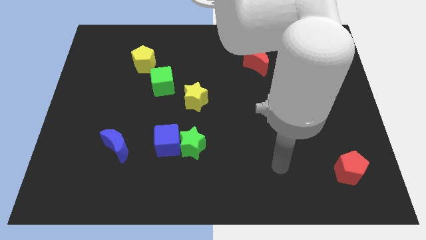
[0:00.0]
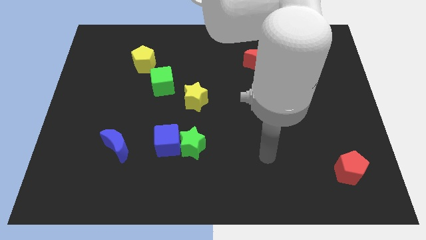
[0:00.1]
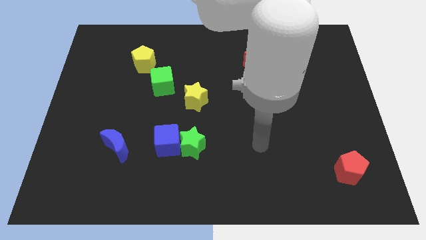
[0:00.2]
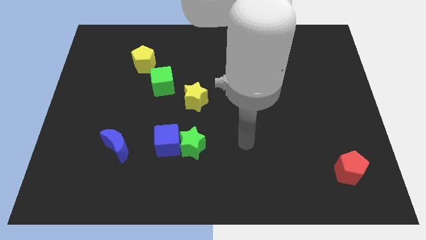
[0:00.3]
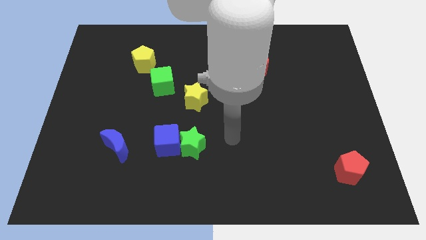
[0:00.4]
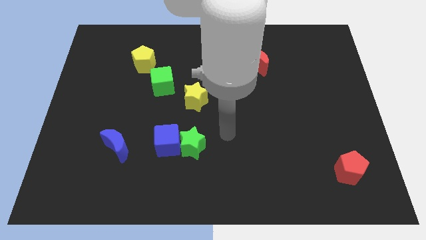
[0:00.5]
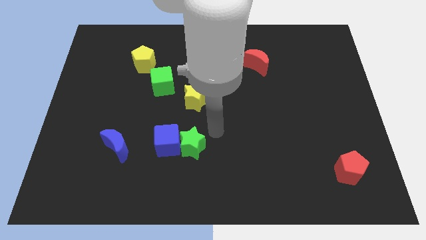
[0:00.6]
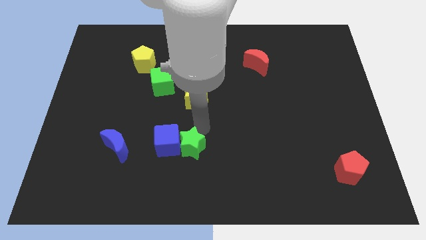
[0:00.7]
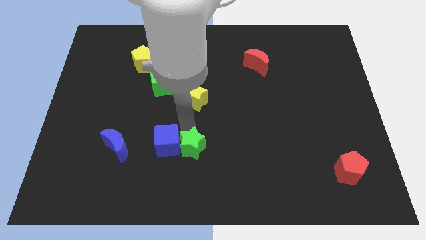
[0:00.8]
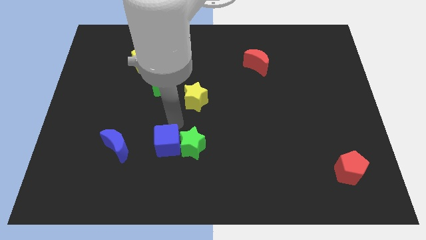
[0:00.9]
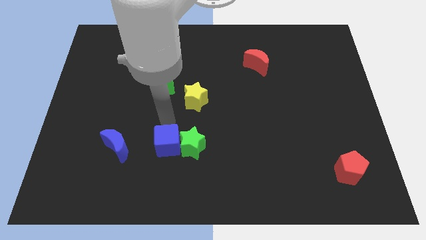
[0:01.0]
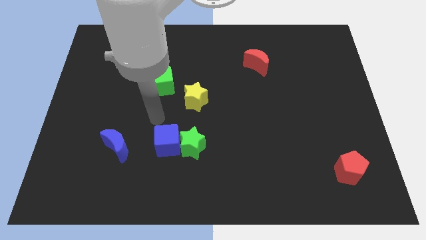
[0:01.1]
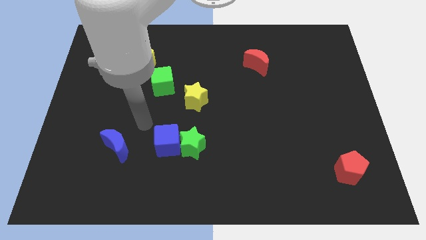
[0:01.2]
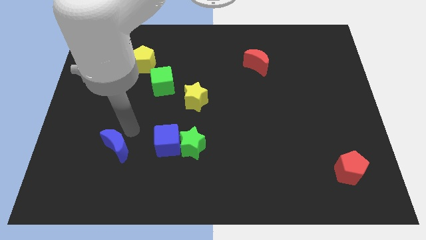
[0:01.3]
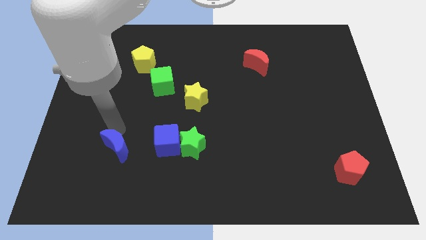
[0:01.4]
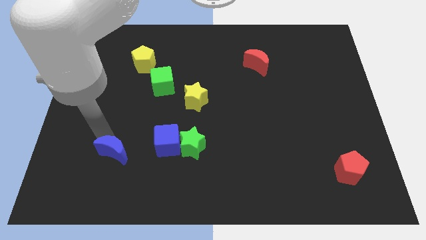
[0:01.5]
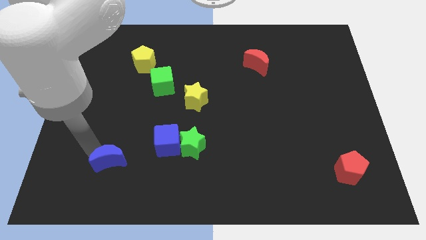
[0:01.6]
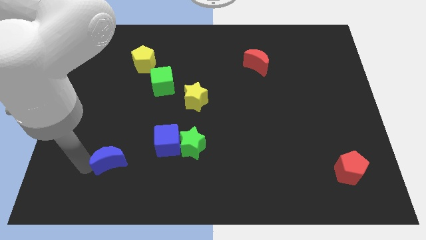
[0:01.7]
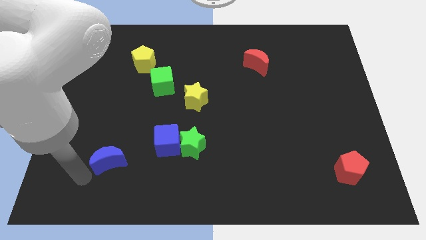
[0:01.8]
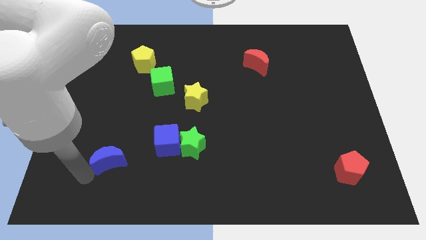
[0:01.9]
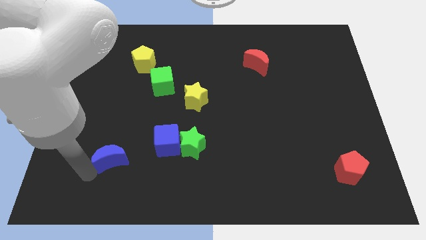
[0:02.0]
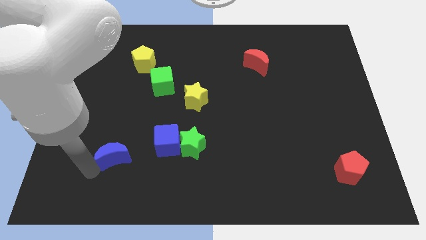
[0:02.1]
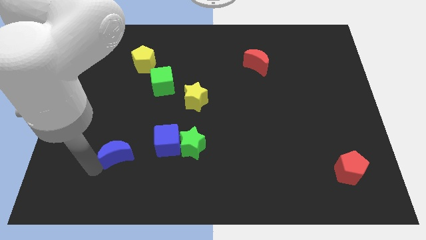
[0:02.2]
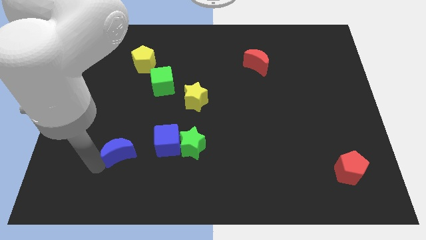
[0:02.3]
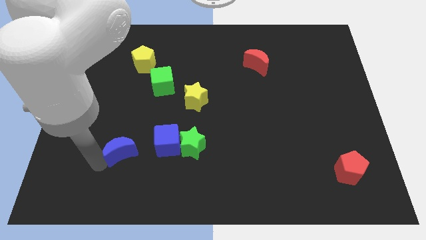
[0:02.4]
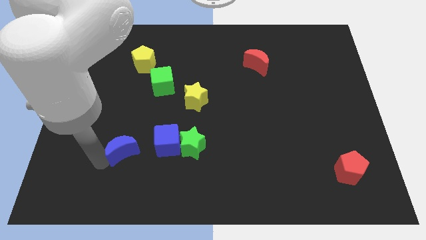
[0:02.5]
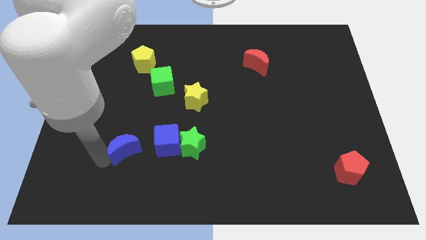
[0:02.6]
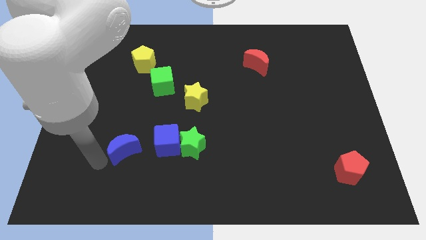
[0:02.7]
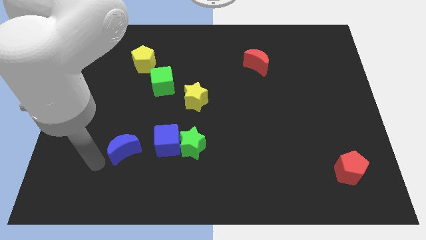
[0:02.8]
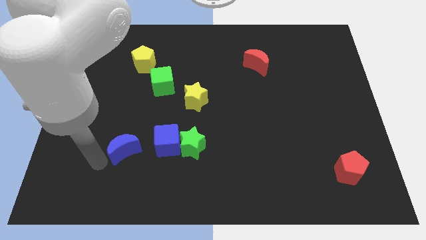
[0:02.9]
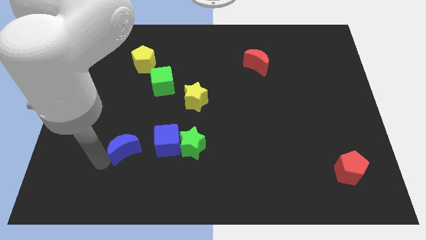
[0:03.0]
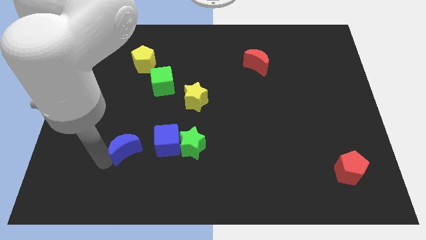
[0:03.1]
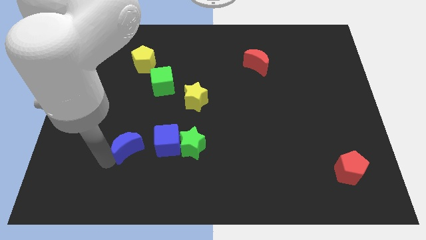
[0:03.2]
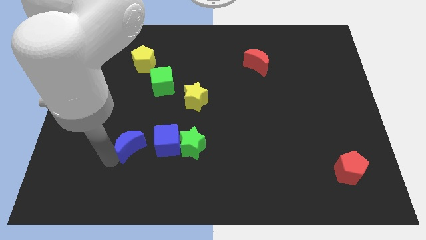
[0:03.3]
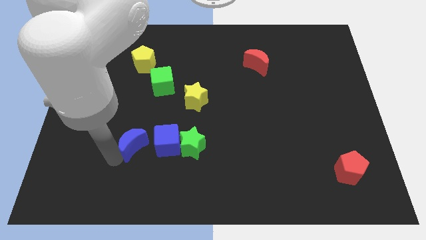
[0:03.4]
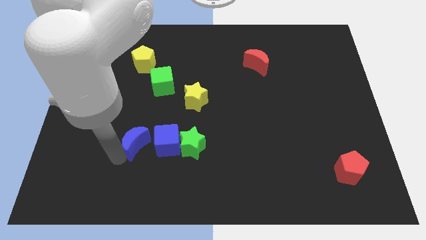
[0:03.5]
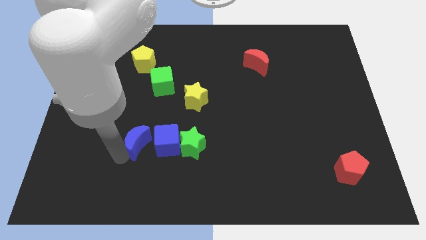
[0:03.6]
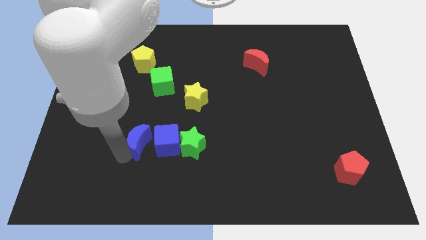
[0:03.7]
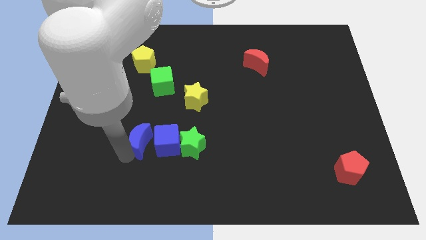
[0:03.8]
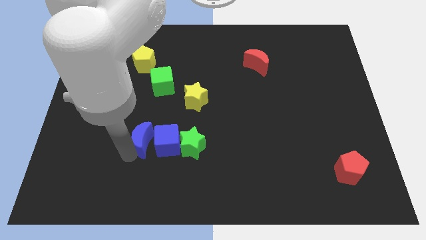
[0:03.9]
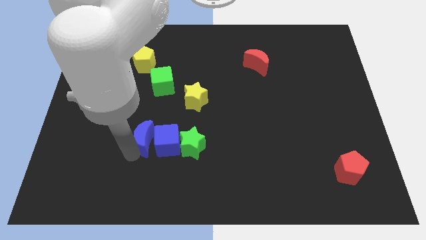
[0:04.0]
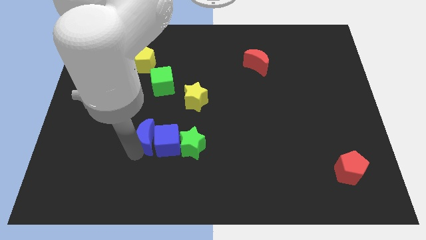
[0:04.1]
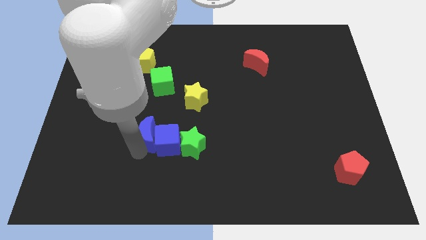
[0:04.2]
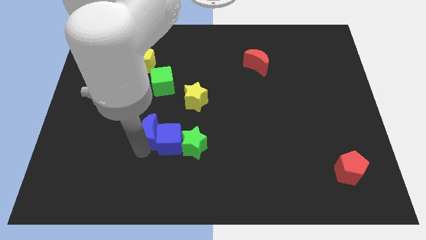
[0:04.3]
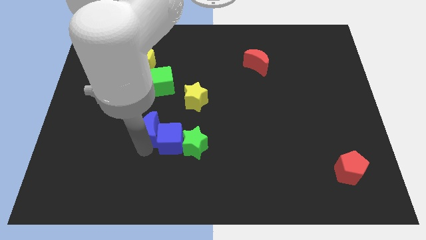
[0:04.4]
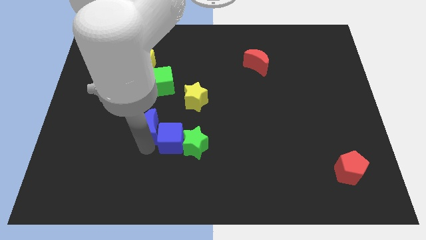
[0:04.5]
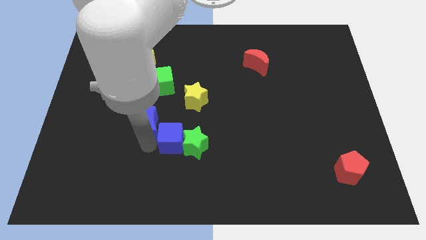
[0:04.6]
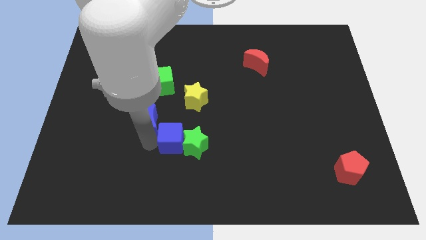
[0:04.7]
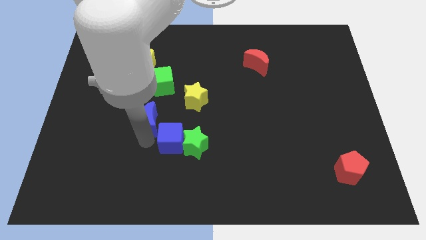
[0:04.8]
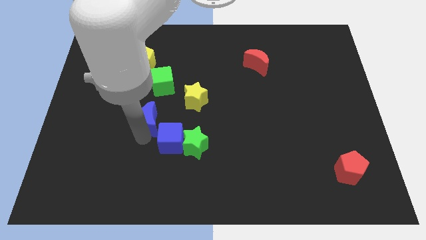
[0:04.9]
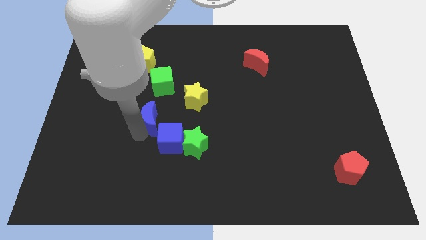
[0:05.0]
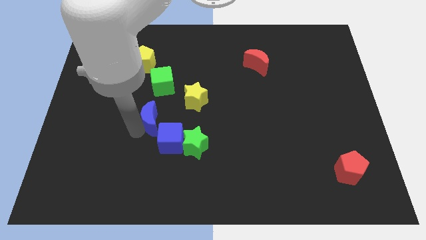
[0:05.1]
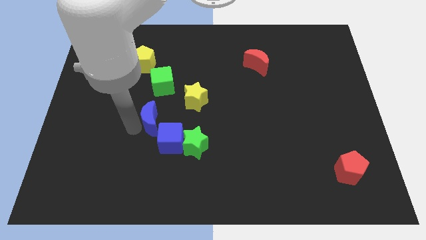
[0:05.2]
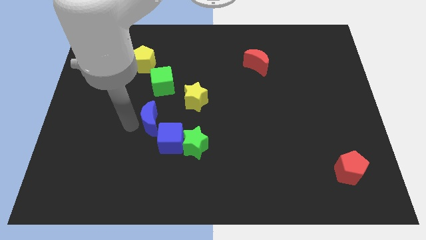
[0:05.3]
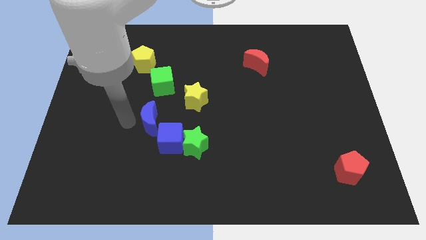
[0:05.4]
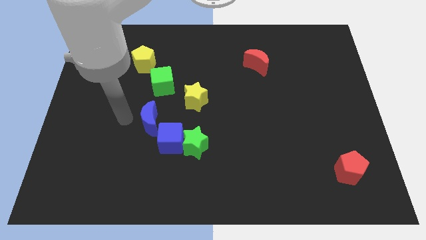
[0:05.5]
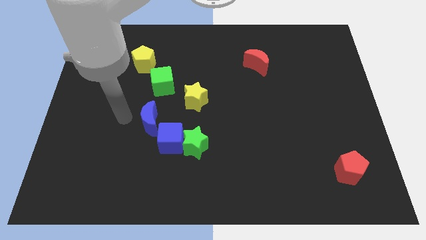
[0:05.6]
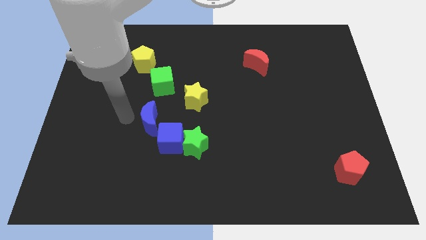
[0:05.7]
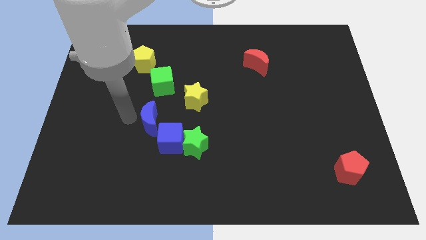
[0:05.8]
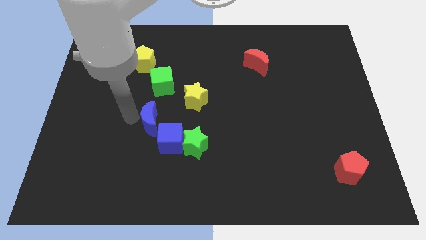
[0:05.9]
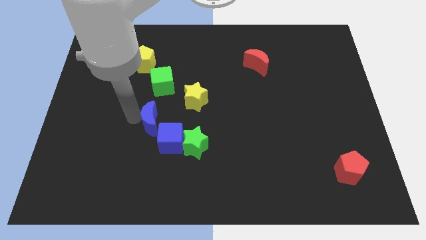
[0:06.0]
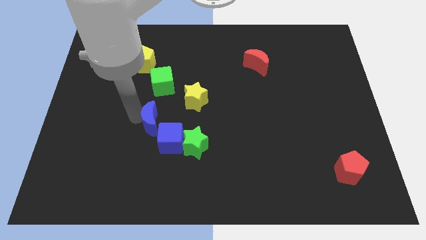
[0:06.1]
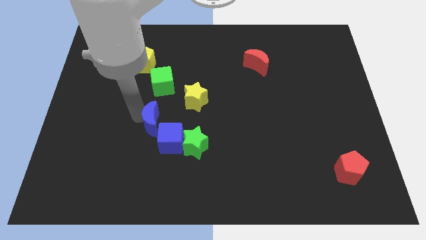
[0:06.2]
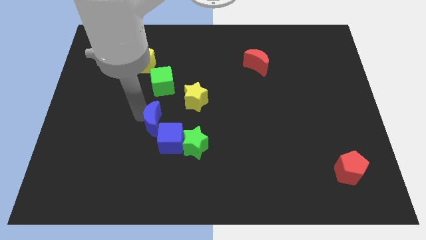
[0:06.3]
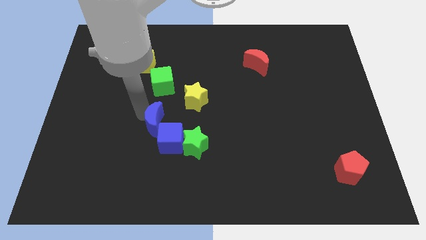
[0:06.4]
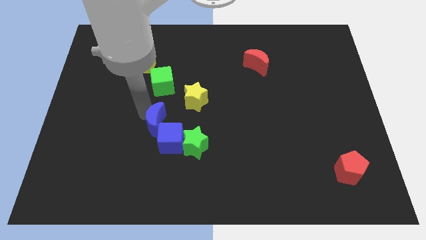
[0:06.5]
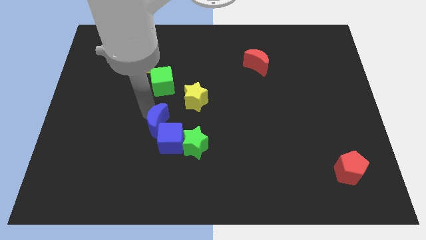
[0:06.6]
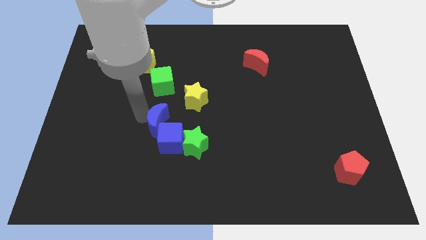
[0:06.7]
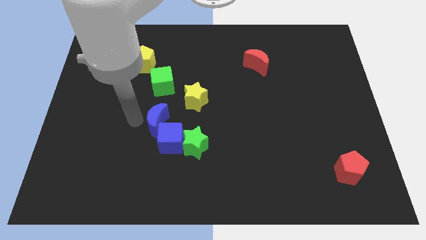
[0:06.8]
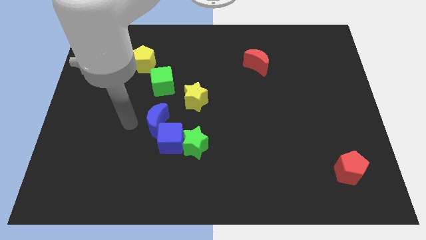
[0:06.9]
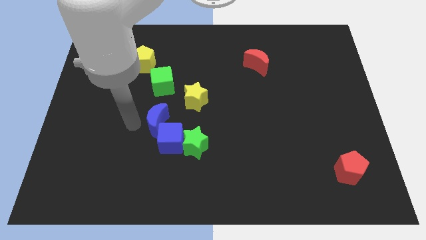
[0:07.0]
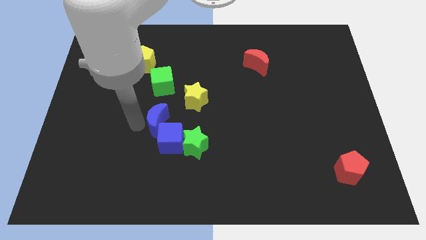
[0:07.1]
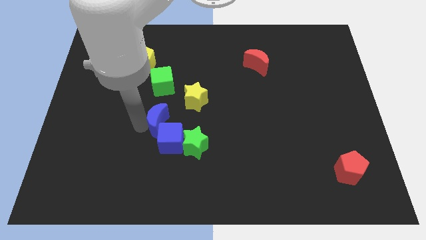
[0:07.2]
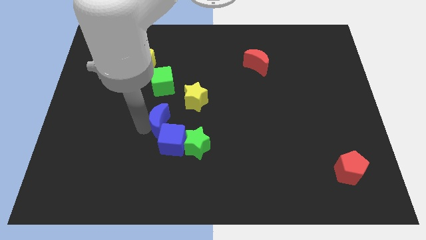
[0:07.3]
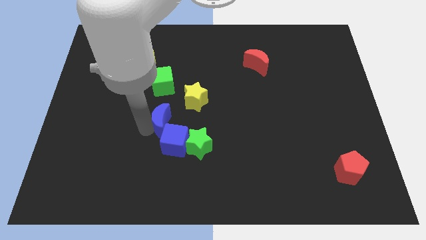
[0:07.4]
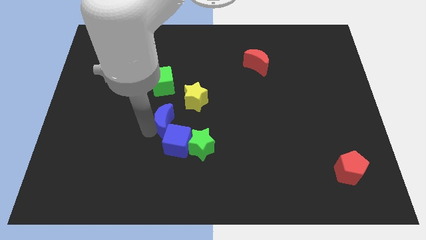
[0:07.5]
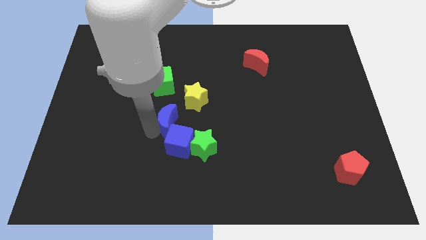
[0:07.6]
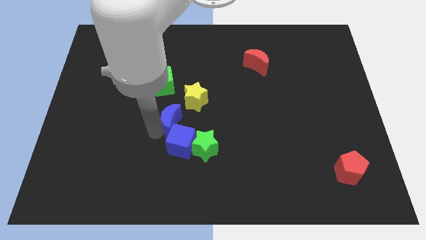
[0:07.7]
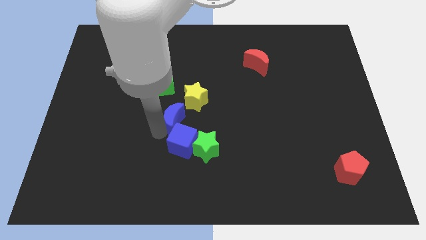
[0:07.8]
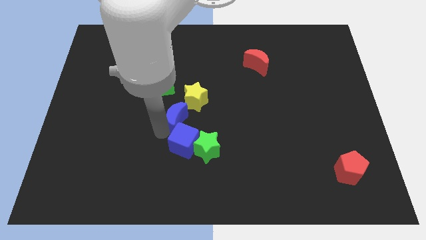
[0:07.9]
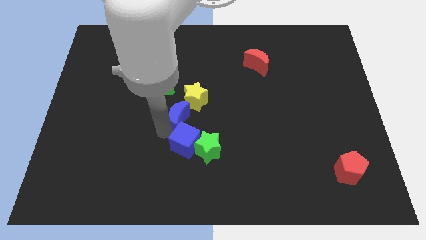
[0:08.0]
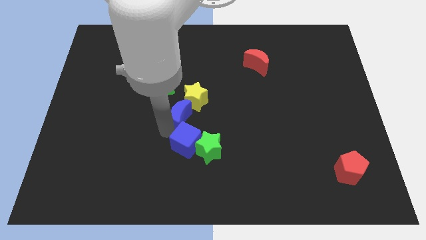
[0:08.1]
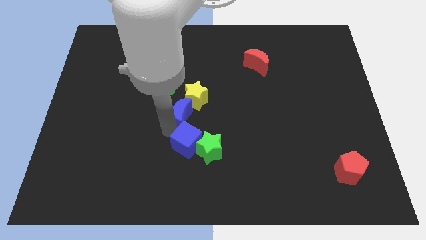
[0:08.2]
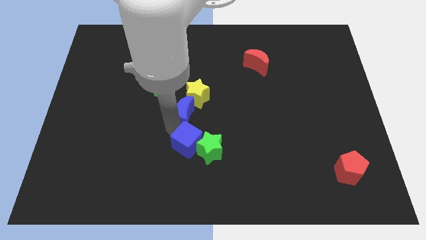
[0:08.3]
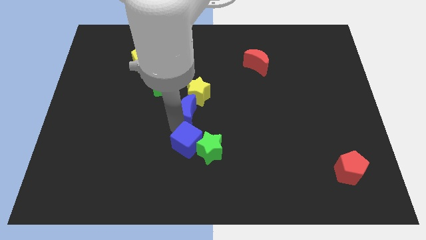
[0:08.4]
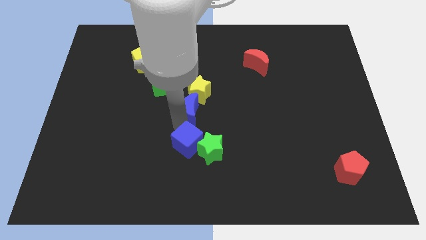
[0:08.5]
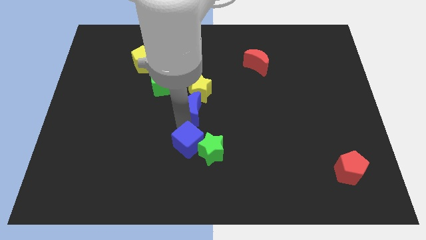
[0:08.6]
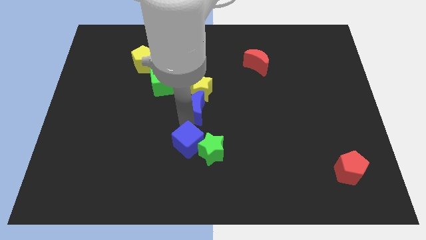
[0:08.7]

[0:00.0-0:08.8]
push the blue moon diagonally down and to the right of the yellow star
